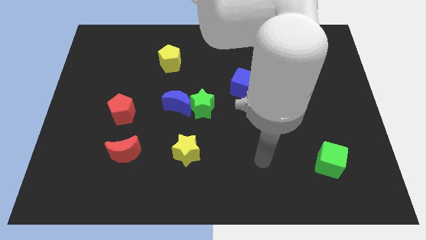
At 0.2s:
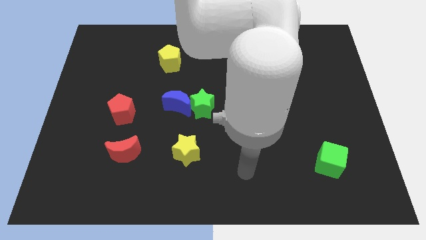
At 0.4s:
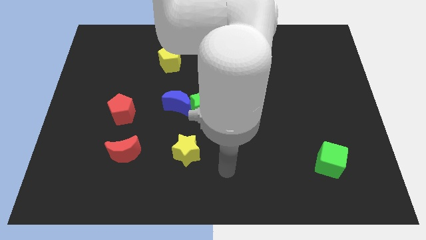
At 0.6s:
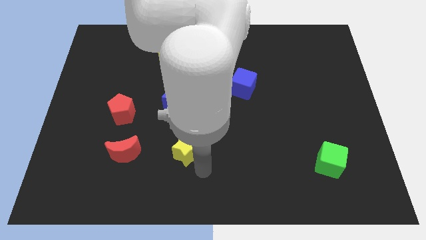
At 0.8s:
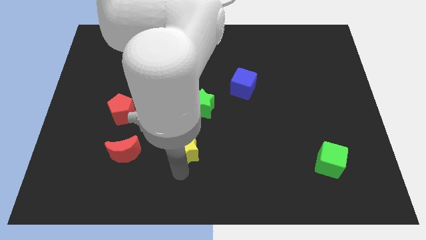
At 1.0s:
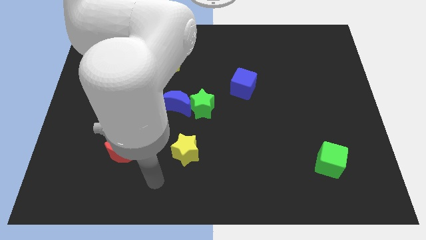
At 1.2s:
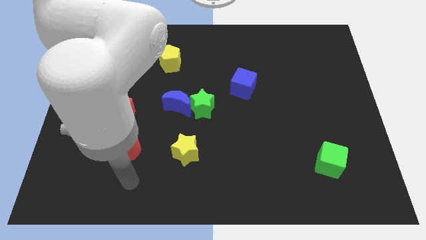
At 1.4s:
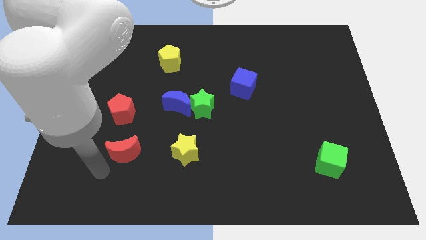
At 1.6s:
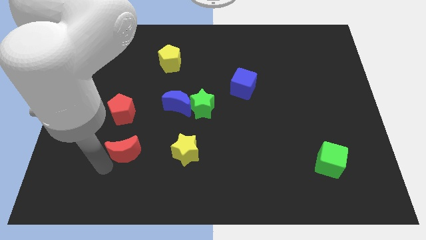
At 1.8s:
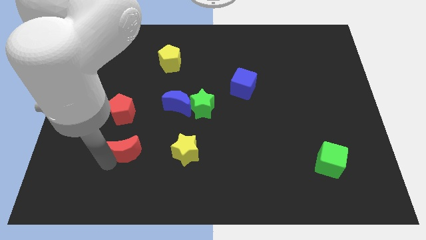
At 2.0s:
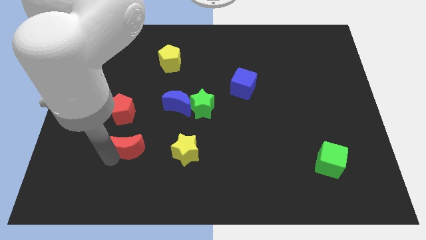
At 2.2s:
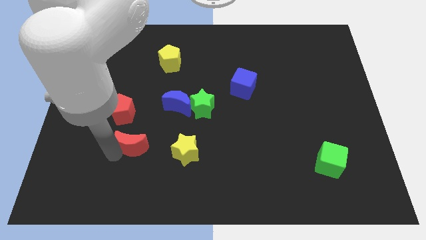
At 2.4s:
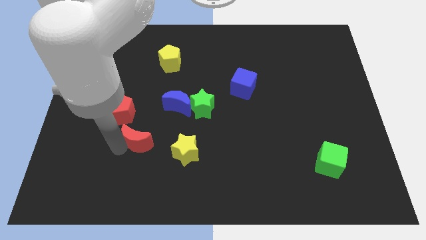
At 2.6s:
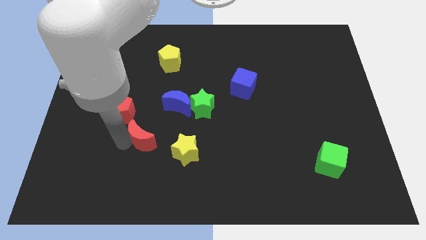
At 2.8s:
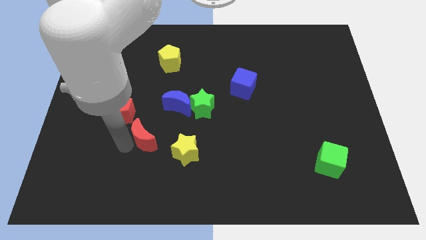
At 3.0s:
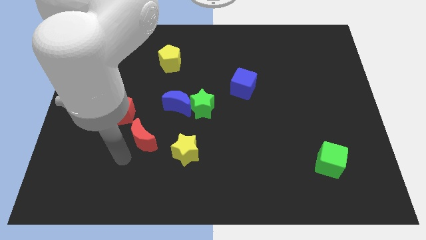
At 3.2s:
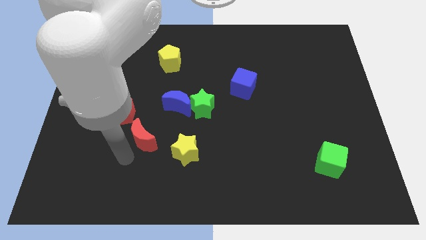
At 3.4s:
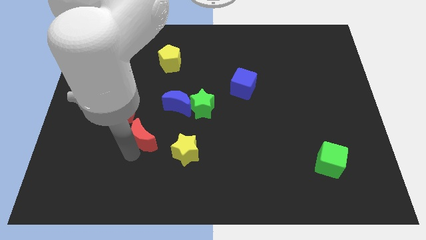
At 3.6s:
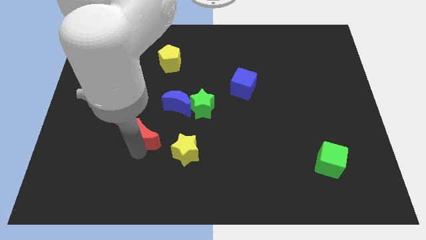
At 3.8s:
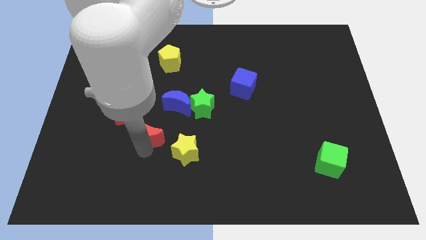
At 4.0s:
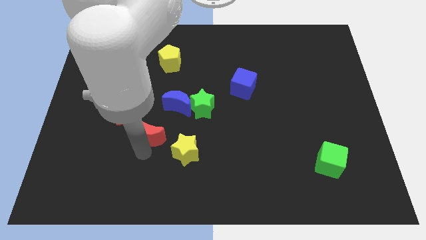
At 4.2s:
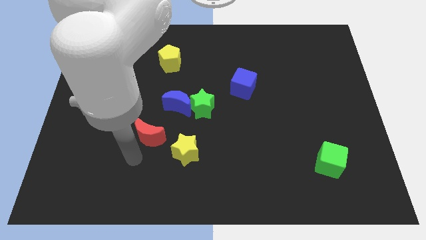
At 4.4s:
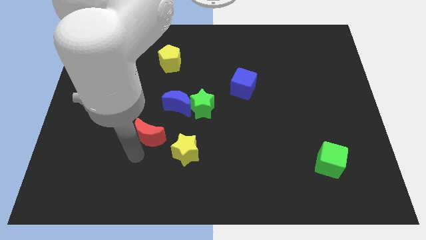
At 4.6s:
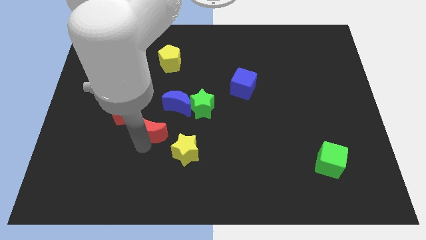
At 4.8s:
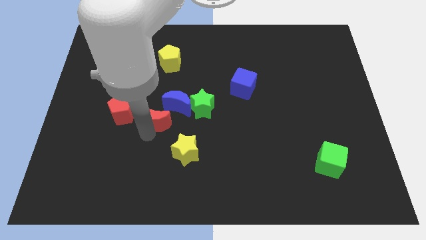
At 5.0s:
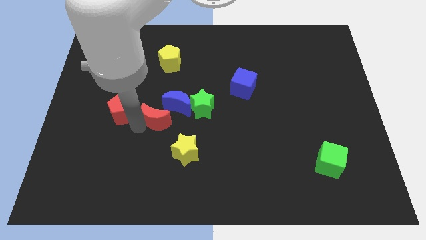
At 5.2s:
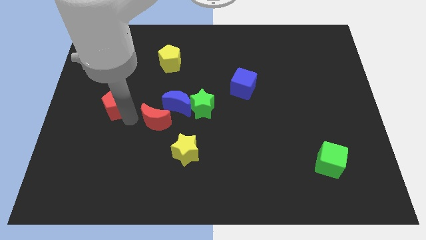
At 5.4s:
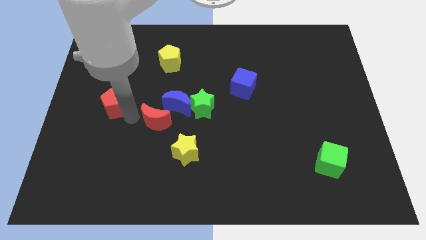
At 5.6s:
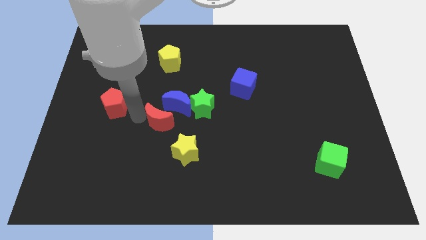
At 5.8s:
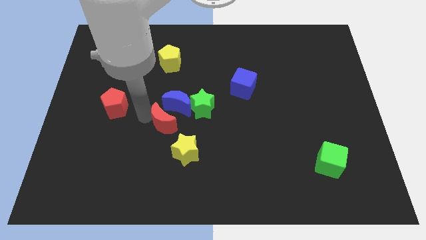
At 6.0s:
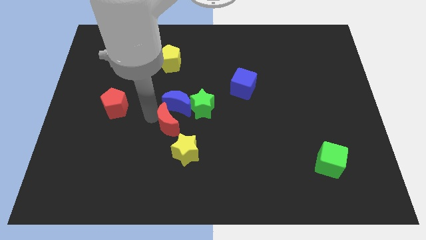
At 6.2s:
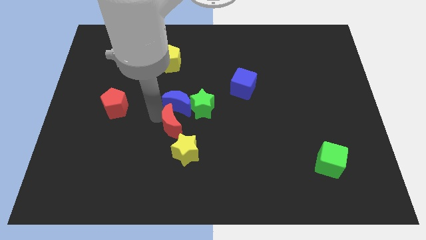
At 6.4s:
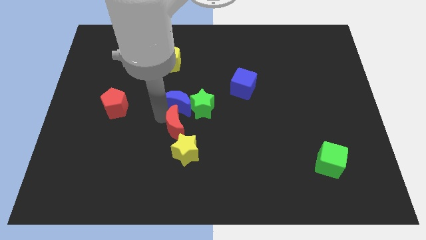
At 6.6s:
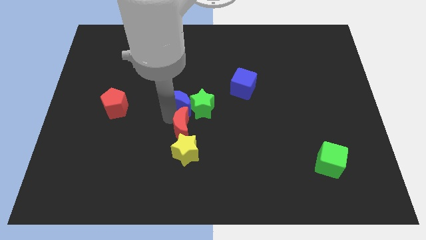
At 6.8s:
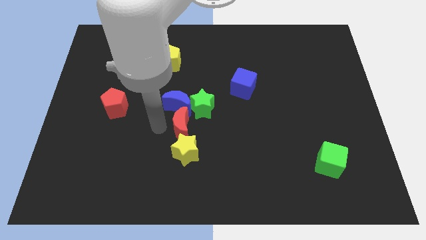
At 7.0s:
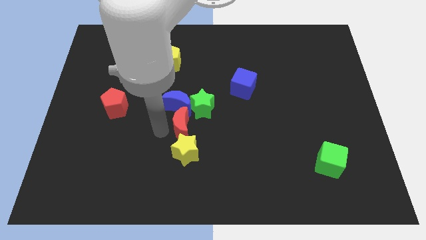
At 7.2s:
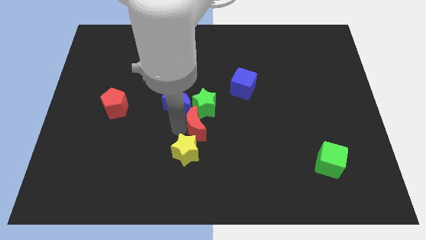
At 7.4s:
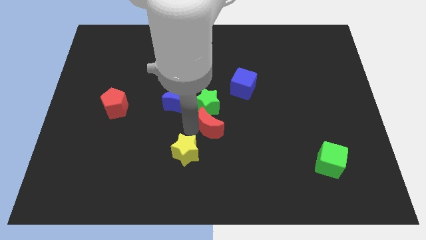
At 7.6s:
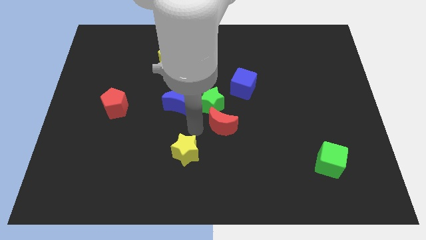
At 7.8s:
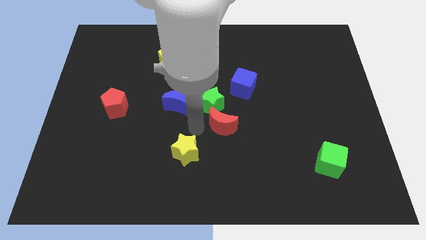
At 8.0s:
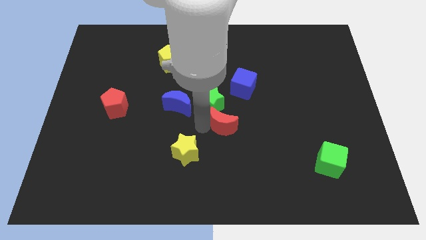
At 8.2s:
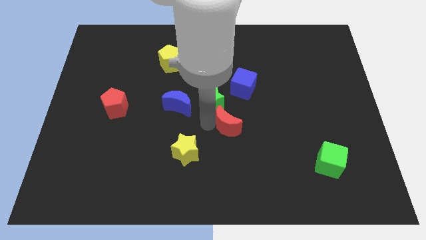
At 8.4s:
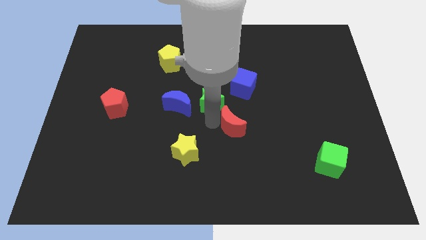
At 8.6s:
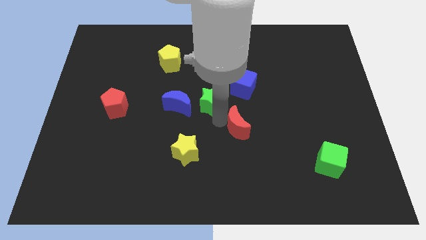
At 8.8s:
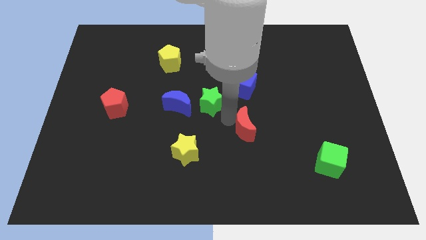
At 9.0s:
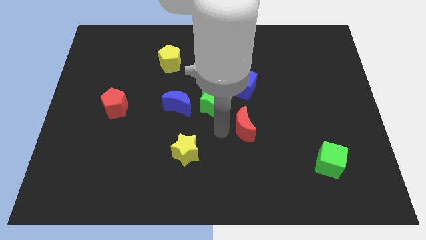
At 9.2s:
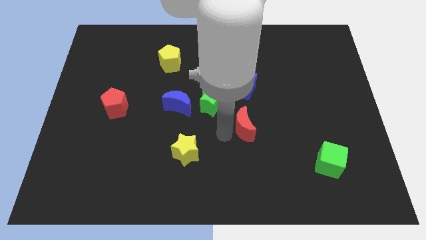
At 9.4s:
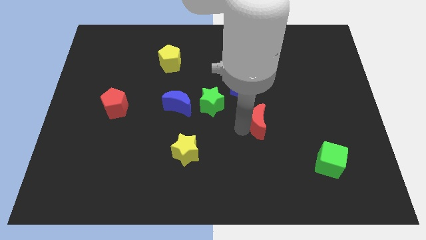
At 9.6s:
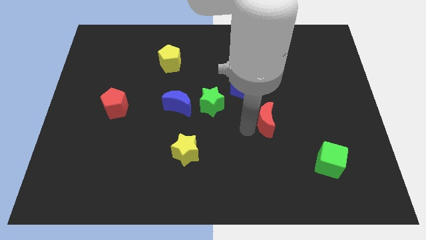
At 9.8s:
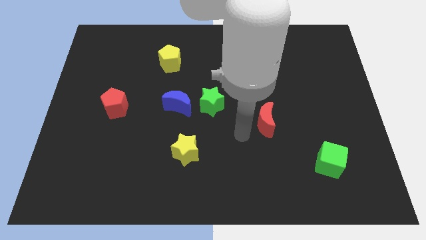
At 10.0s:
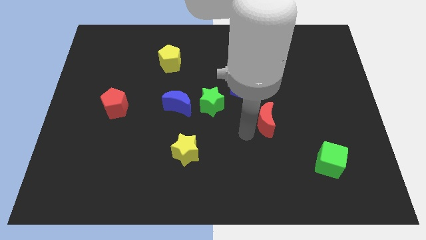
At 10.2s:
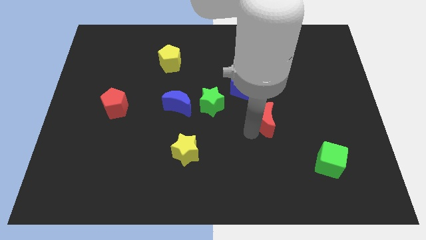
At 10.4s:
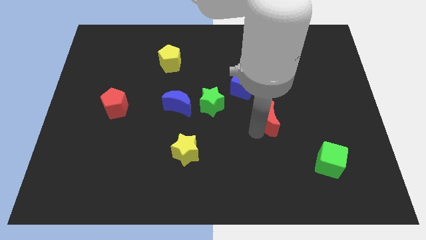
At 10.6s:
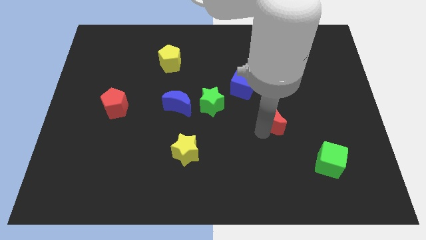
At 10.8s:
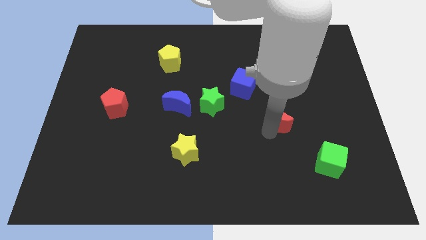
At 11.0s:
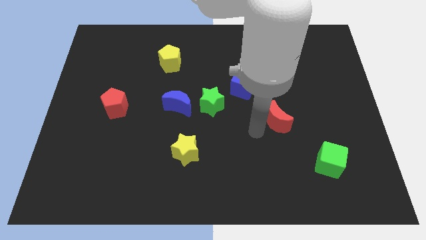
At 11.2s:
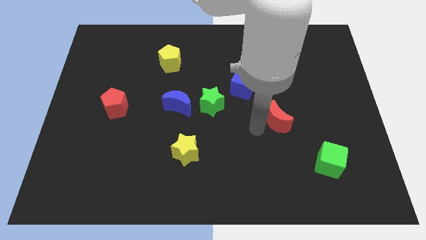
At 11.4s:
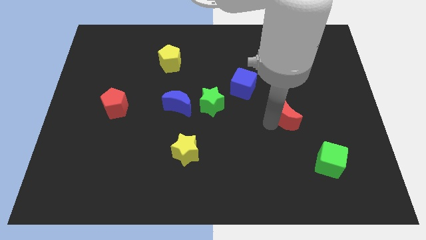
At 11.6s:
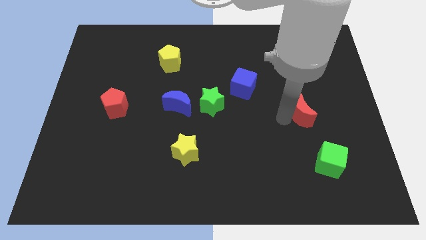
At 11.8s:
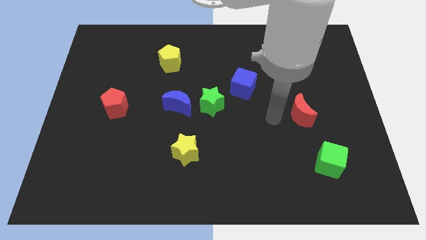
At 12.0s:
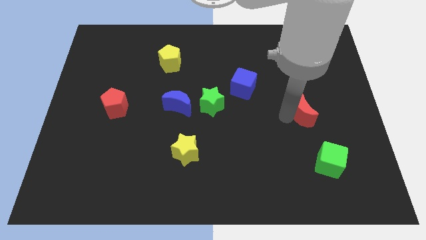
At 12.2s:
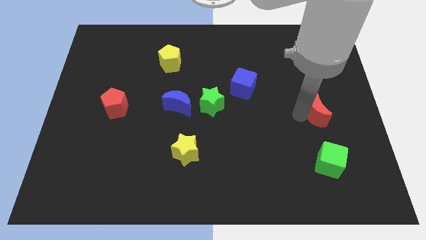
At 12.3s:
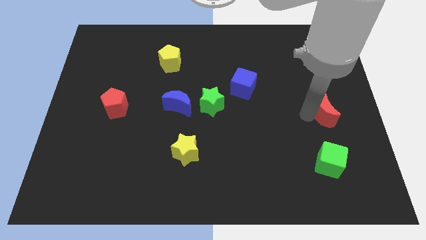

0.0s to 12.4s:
slide the red moon to the right side
